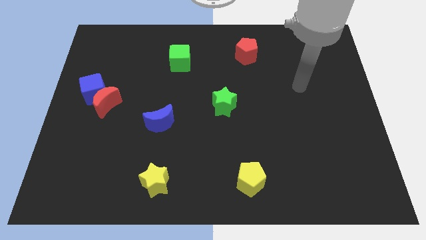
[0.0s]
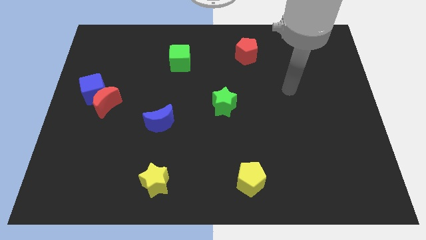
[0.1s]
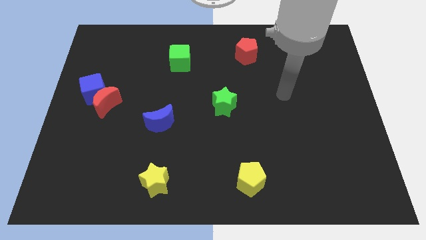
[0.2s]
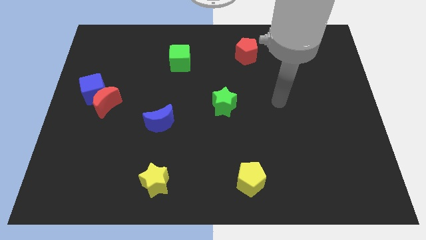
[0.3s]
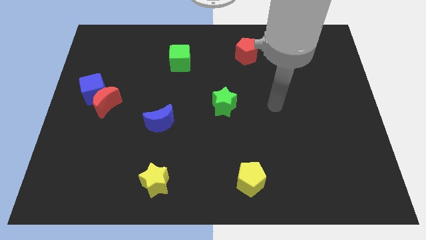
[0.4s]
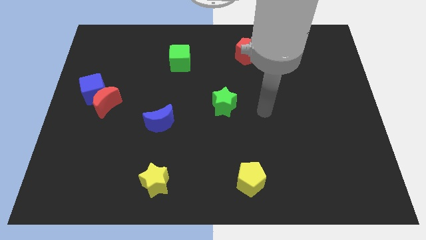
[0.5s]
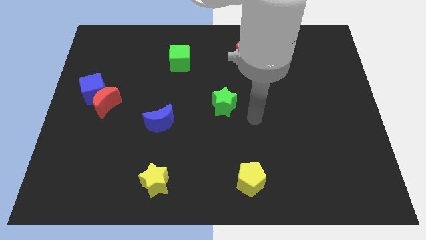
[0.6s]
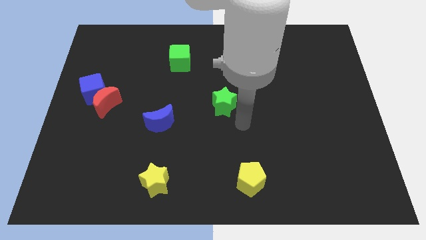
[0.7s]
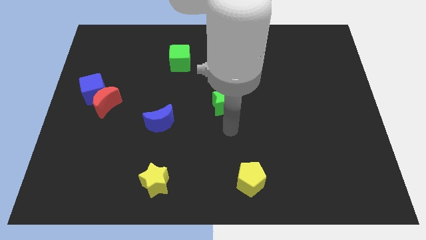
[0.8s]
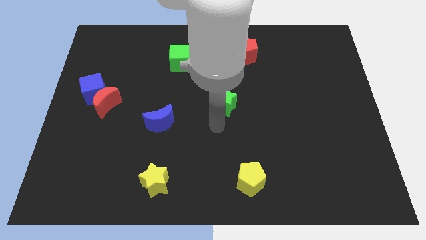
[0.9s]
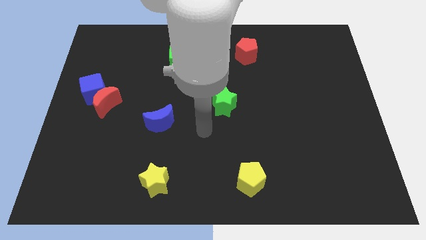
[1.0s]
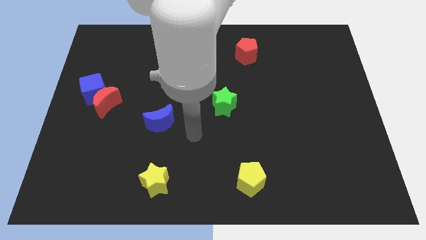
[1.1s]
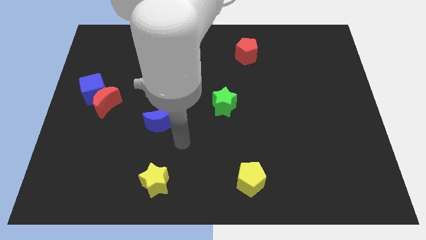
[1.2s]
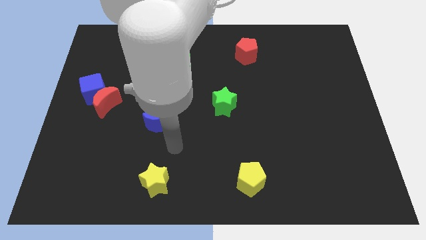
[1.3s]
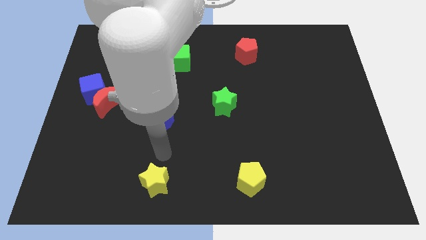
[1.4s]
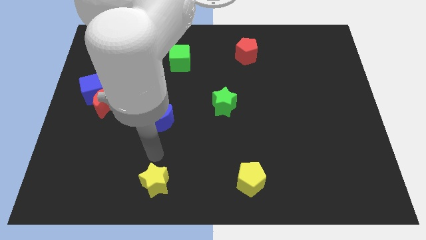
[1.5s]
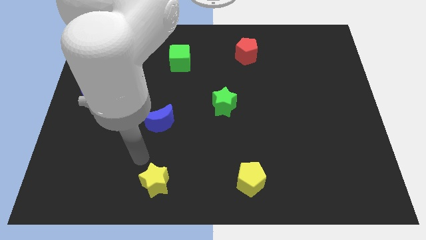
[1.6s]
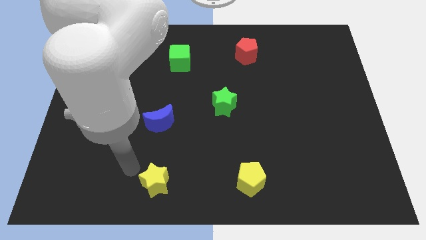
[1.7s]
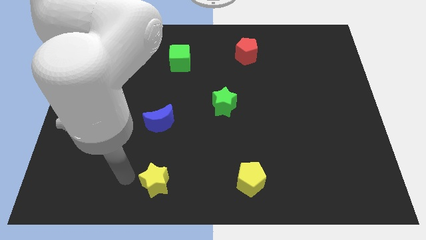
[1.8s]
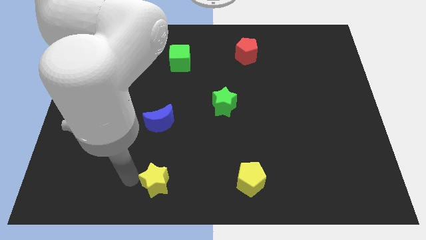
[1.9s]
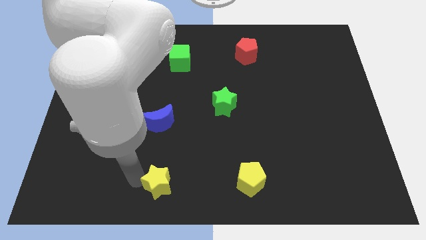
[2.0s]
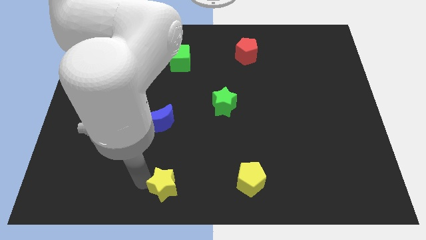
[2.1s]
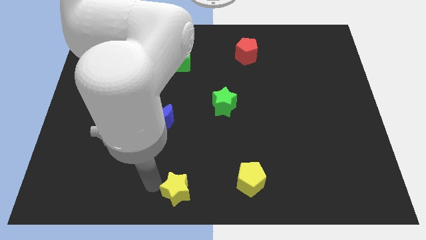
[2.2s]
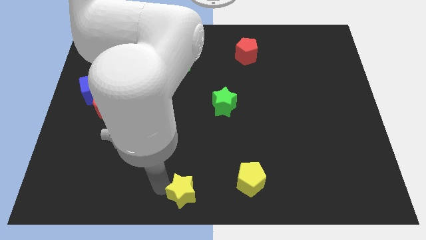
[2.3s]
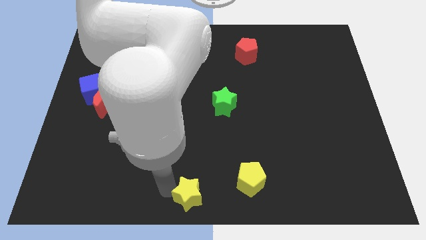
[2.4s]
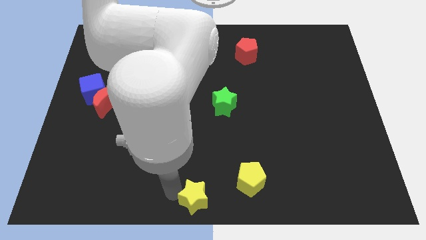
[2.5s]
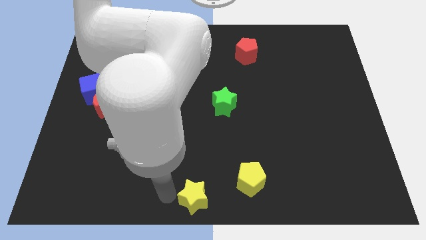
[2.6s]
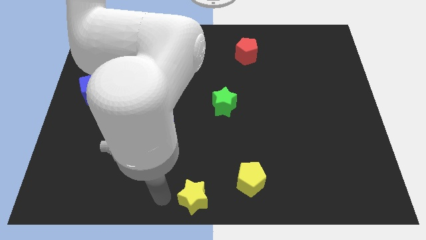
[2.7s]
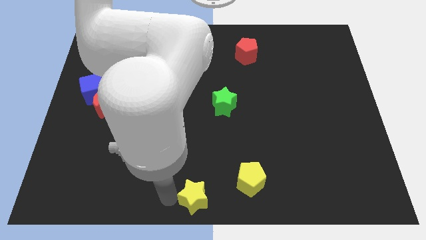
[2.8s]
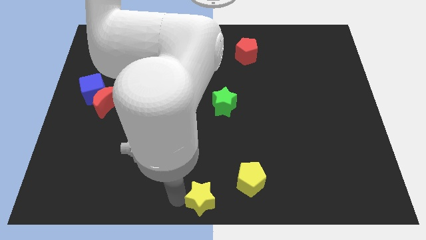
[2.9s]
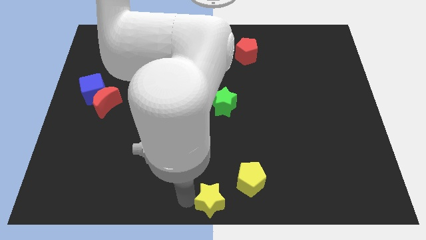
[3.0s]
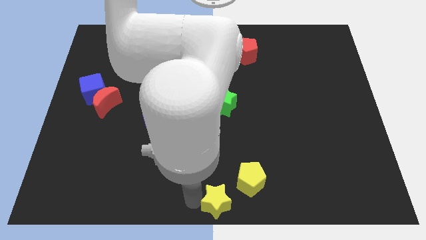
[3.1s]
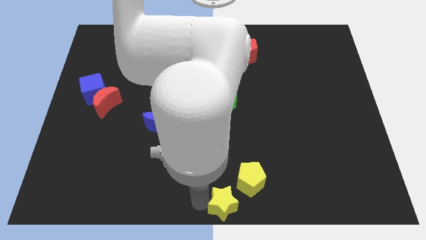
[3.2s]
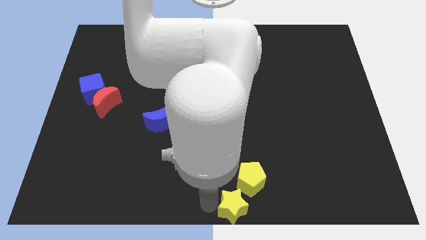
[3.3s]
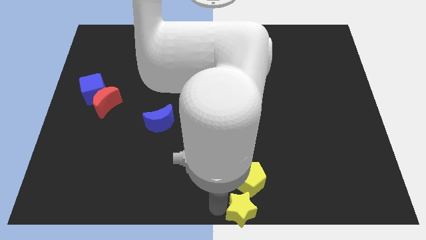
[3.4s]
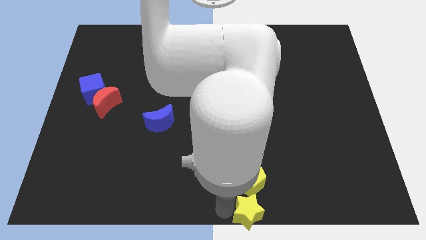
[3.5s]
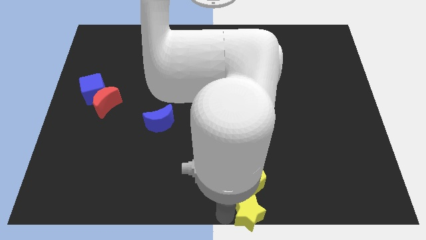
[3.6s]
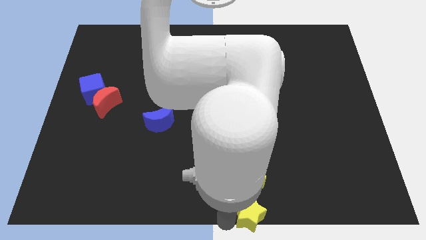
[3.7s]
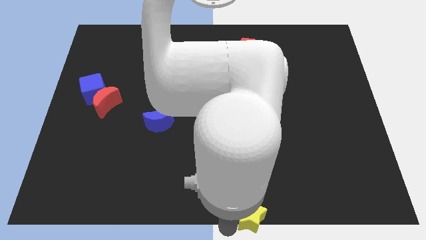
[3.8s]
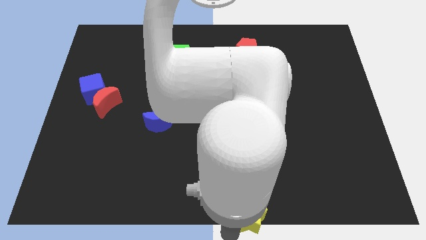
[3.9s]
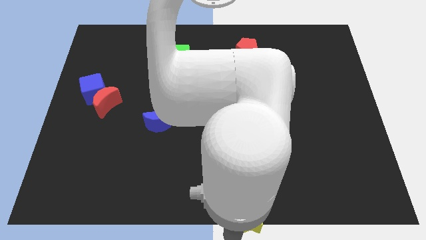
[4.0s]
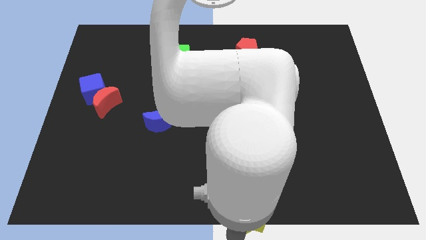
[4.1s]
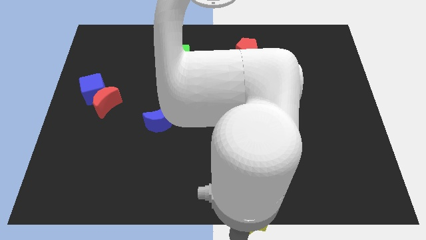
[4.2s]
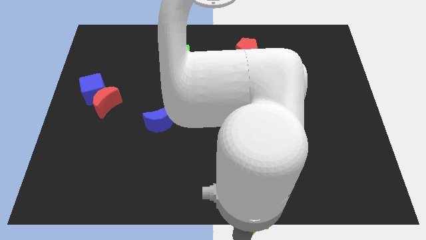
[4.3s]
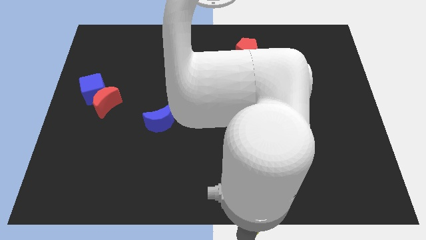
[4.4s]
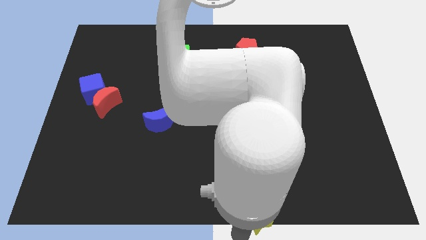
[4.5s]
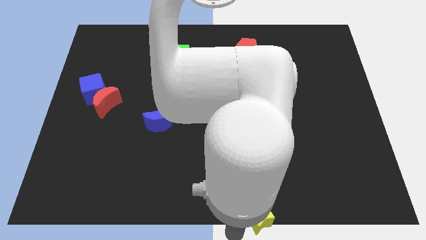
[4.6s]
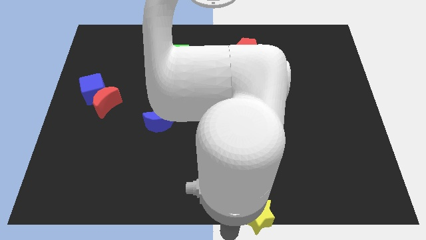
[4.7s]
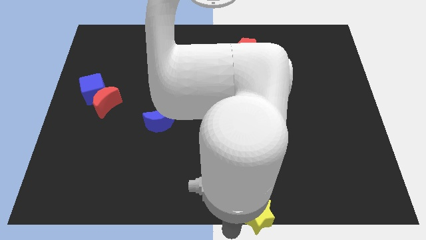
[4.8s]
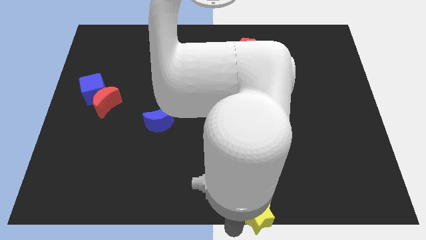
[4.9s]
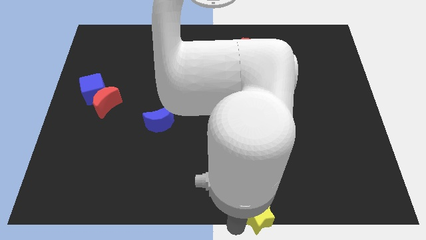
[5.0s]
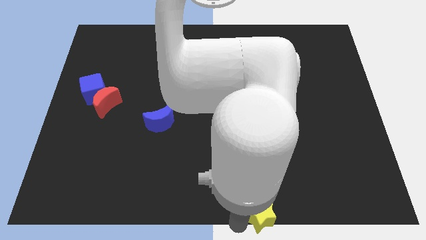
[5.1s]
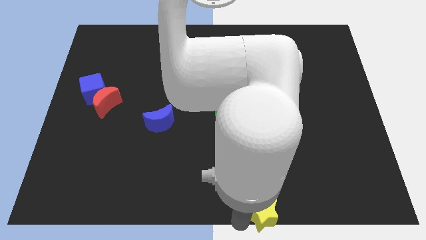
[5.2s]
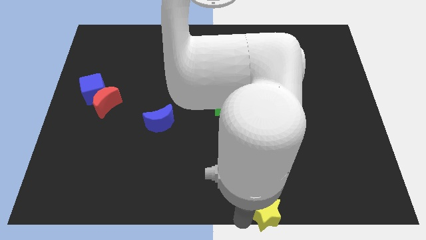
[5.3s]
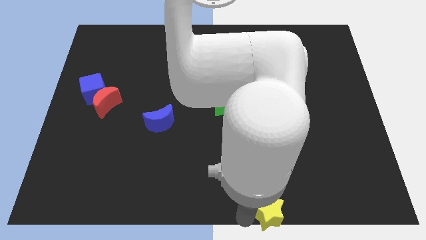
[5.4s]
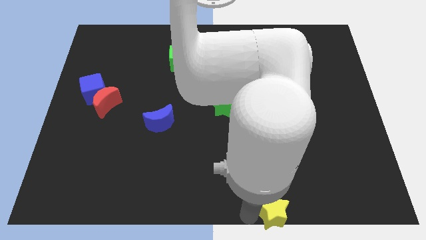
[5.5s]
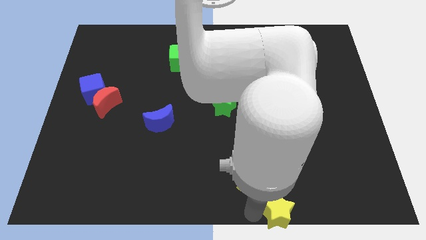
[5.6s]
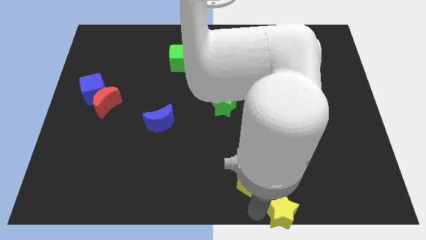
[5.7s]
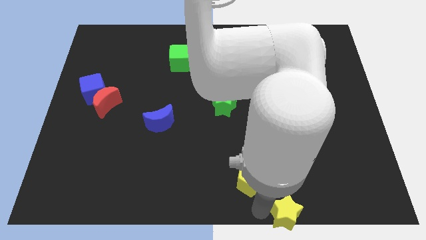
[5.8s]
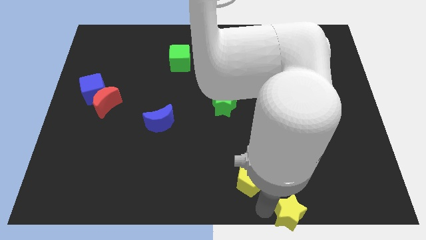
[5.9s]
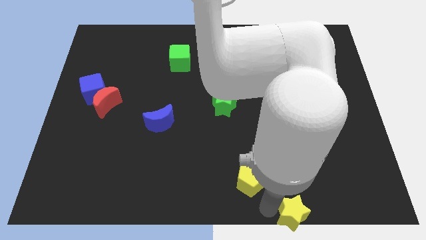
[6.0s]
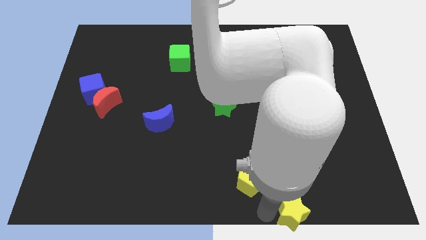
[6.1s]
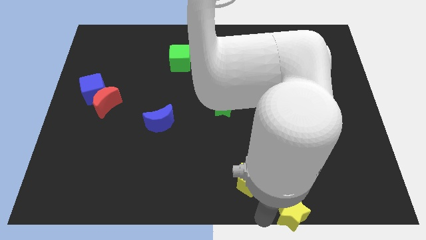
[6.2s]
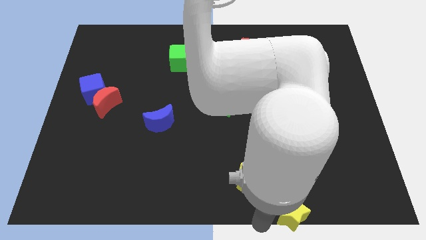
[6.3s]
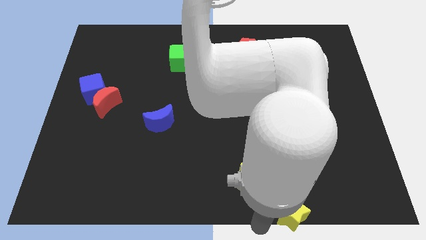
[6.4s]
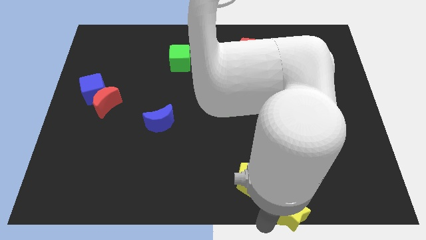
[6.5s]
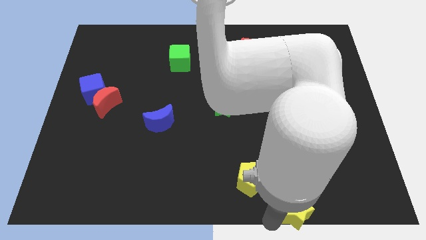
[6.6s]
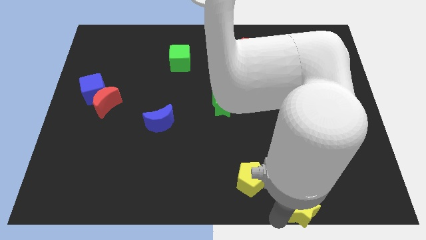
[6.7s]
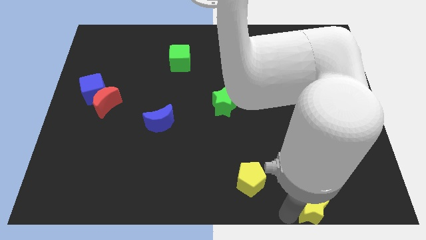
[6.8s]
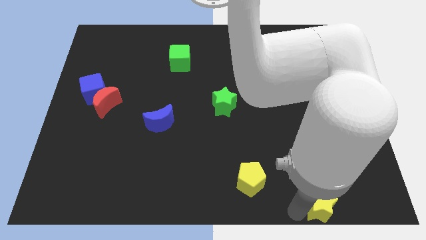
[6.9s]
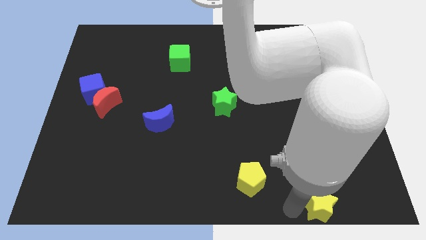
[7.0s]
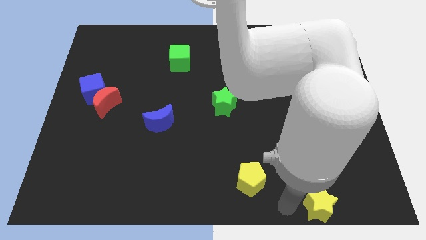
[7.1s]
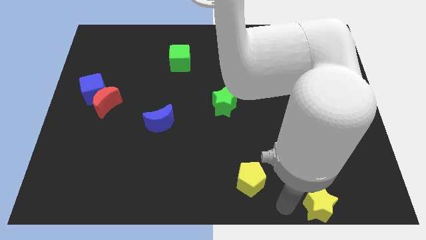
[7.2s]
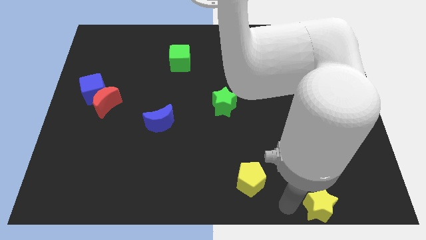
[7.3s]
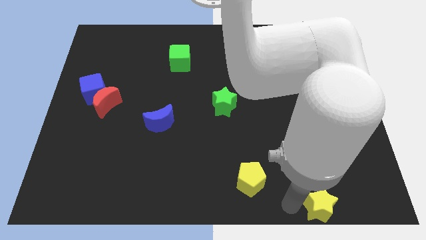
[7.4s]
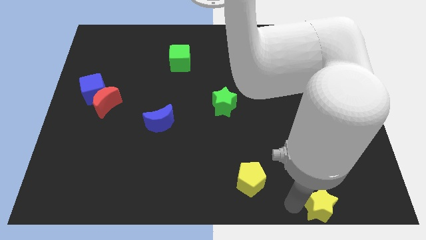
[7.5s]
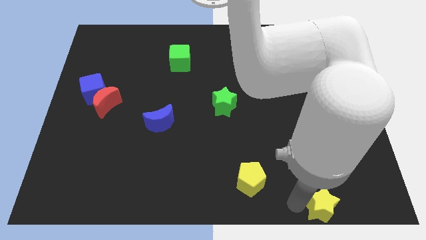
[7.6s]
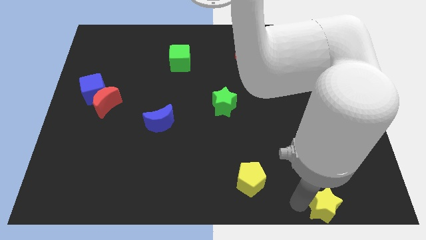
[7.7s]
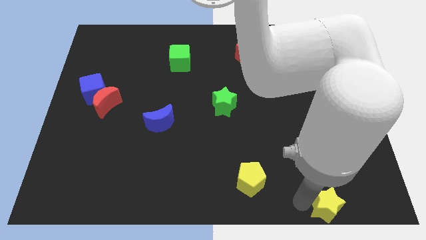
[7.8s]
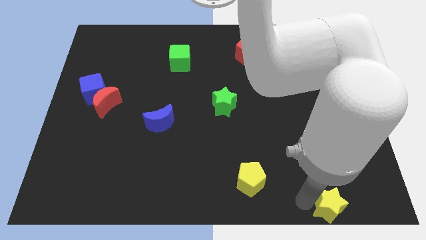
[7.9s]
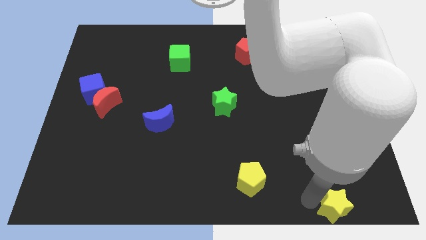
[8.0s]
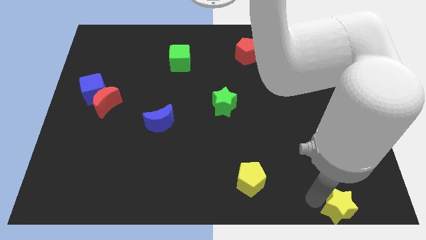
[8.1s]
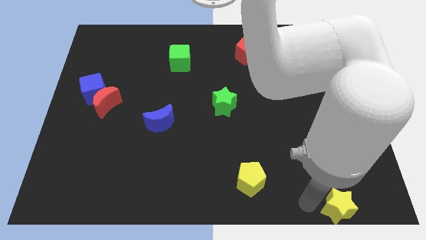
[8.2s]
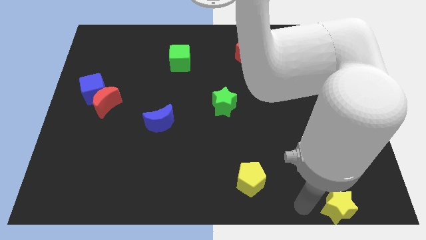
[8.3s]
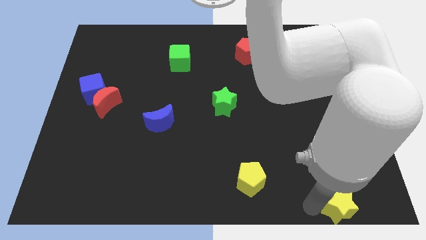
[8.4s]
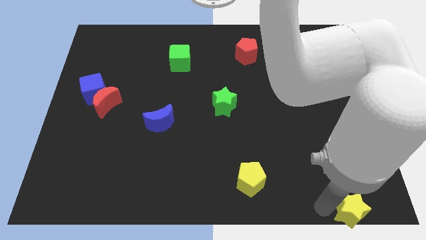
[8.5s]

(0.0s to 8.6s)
push the yellow star to the bottom right corner
